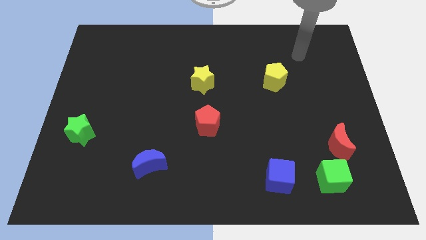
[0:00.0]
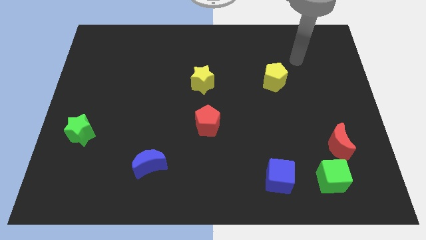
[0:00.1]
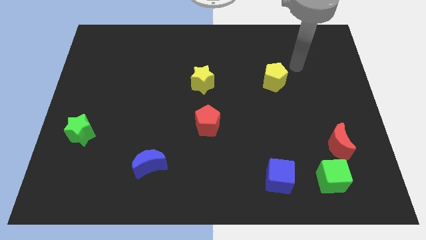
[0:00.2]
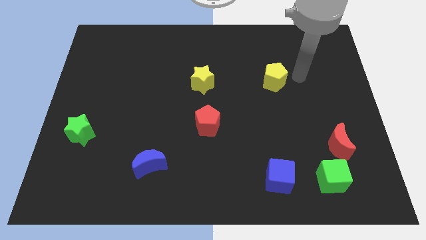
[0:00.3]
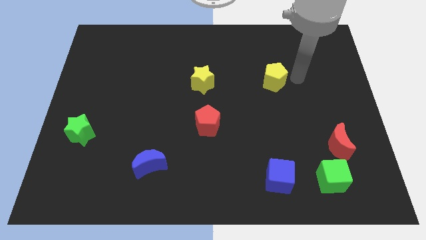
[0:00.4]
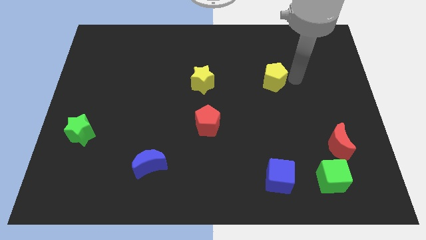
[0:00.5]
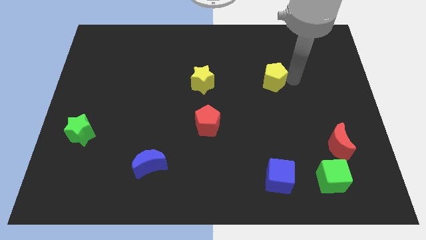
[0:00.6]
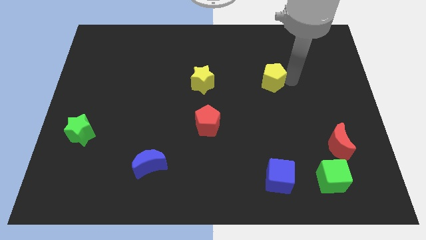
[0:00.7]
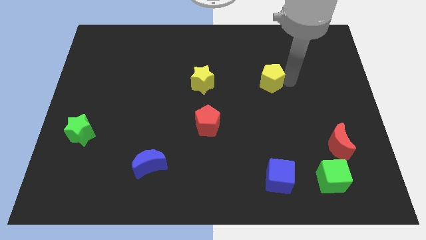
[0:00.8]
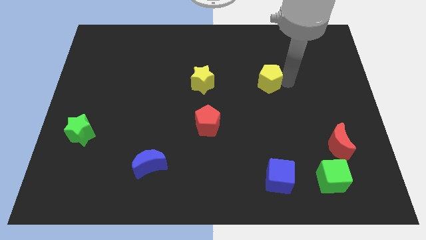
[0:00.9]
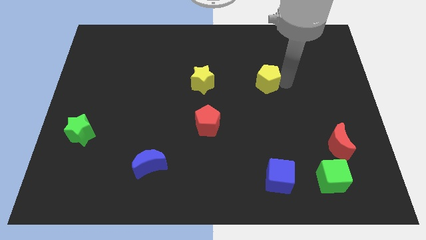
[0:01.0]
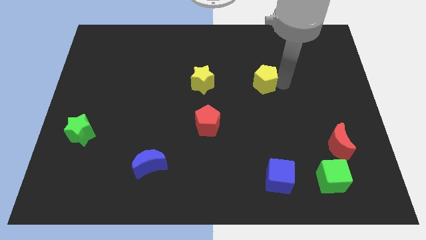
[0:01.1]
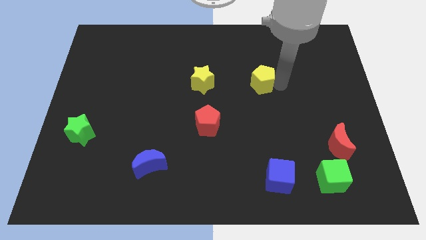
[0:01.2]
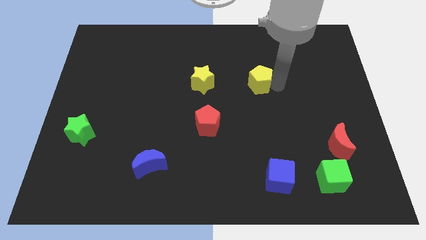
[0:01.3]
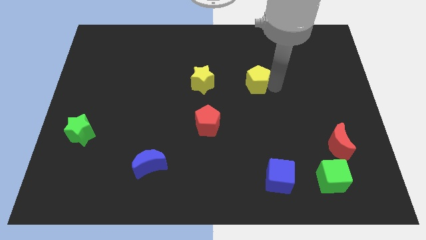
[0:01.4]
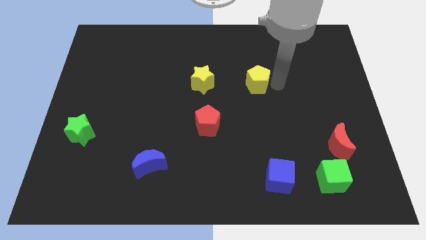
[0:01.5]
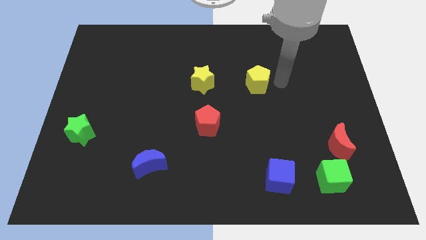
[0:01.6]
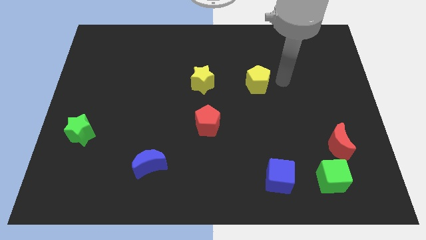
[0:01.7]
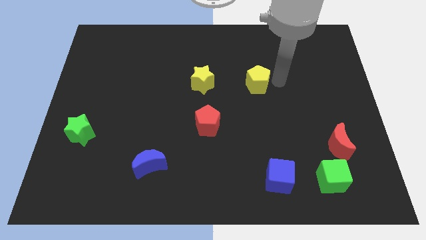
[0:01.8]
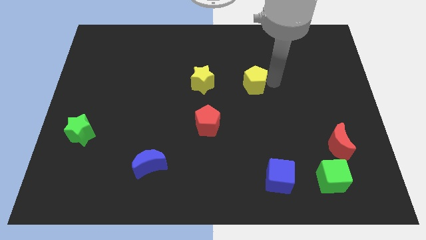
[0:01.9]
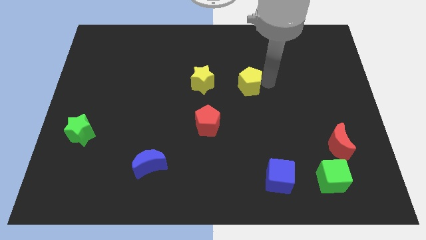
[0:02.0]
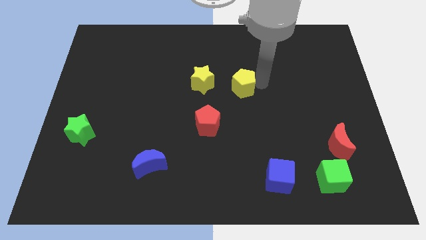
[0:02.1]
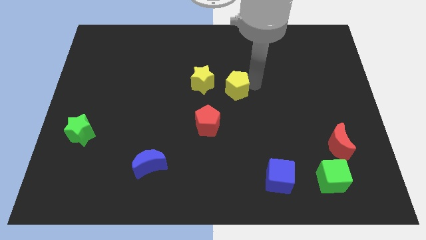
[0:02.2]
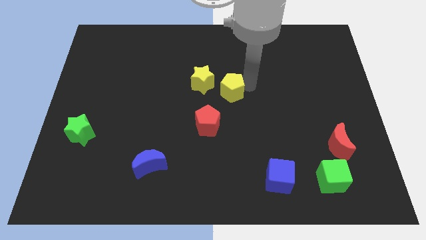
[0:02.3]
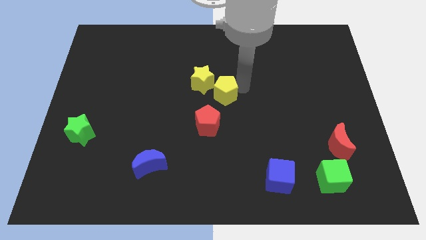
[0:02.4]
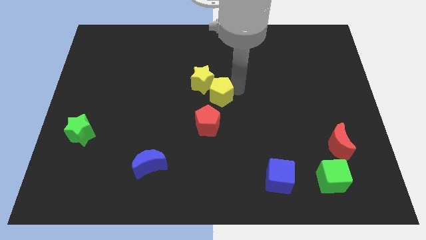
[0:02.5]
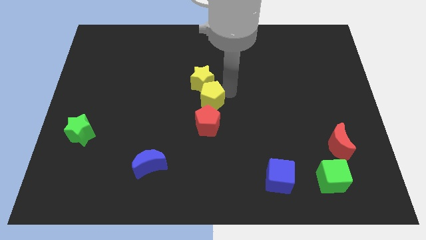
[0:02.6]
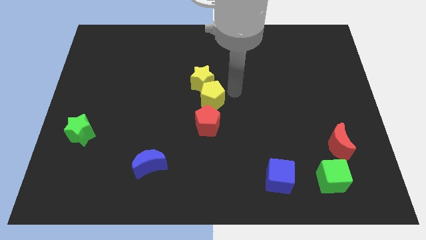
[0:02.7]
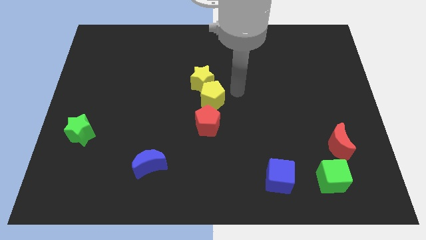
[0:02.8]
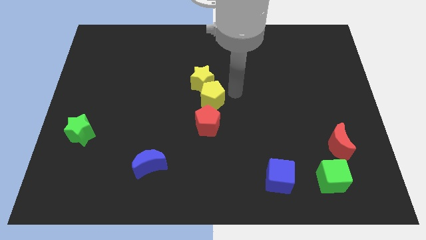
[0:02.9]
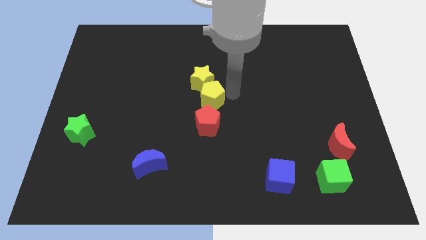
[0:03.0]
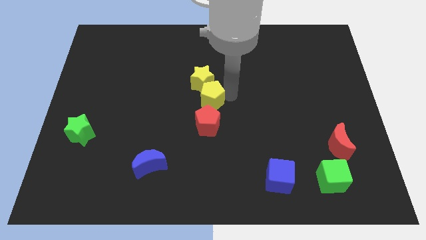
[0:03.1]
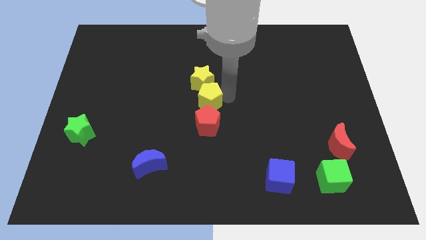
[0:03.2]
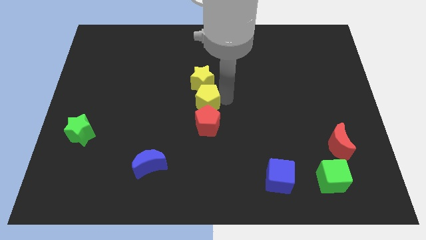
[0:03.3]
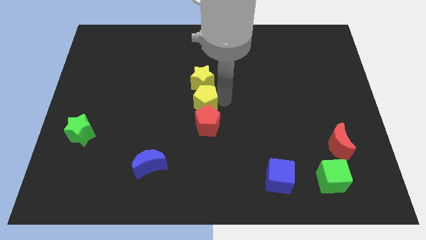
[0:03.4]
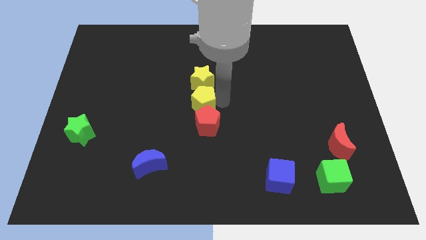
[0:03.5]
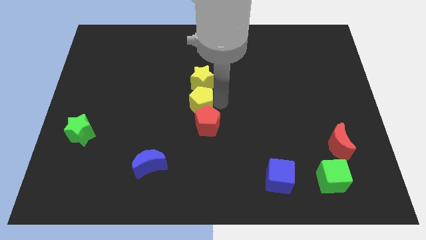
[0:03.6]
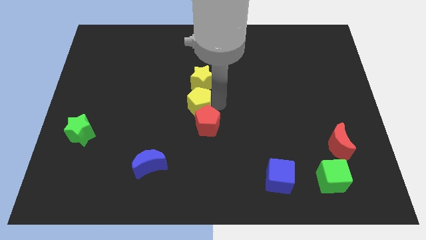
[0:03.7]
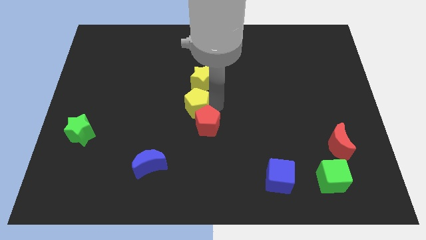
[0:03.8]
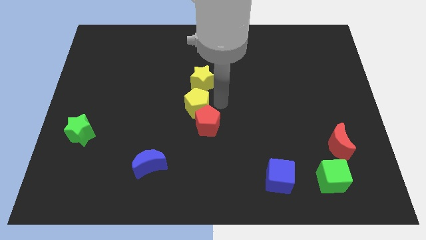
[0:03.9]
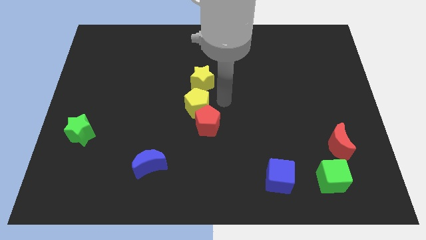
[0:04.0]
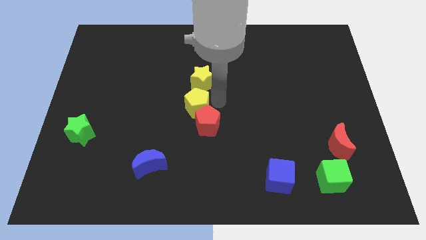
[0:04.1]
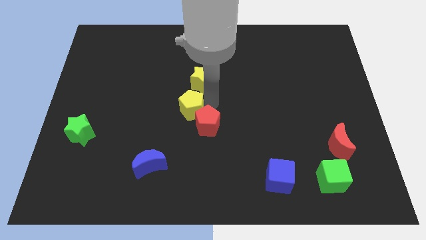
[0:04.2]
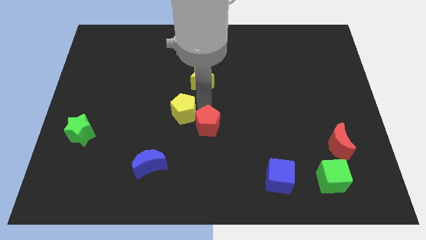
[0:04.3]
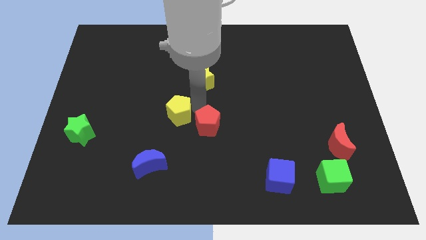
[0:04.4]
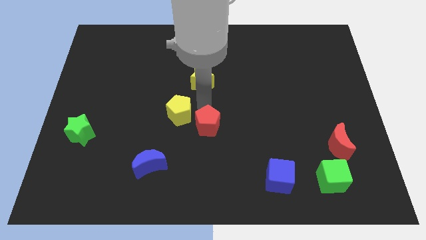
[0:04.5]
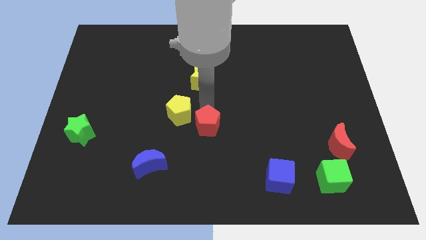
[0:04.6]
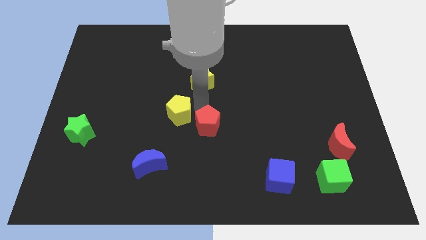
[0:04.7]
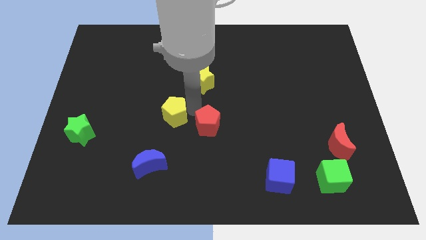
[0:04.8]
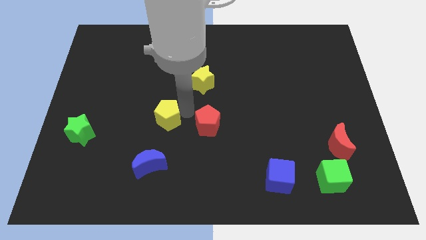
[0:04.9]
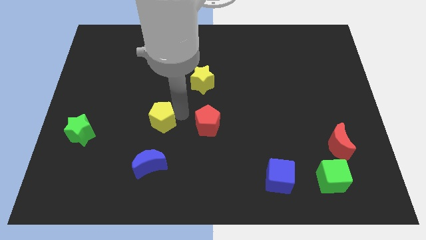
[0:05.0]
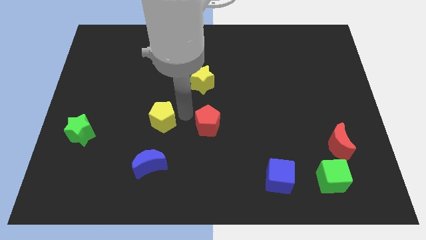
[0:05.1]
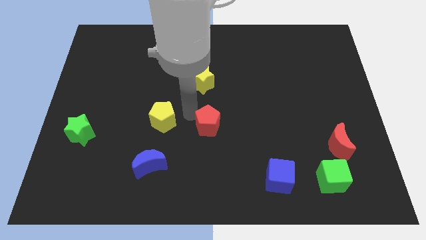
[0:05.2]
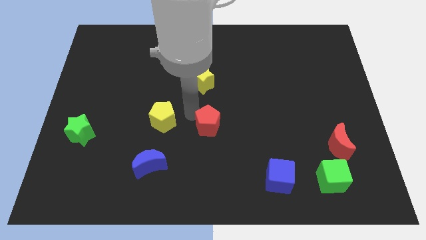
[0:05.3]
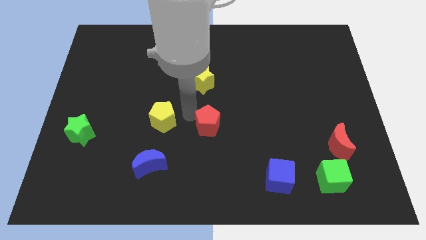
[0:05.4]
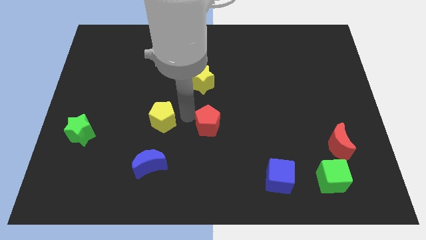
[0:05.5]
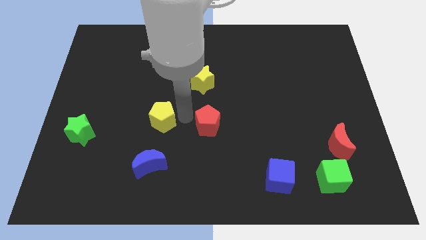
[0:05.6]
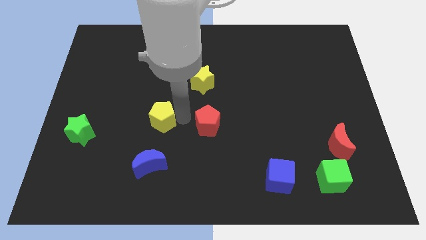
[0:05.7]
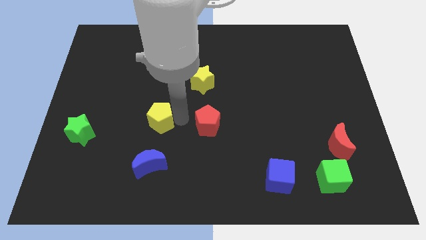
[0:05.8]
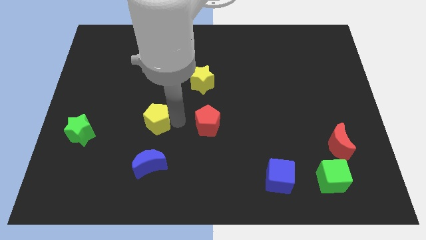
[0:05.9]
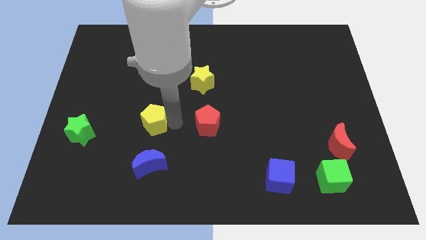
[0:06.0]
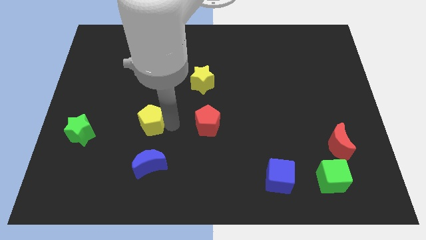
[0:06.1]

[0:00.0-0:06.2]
put the yellow pentagon right of the green star

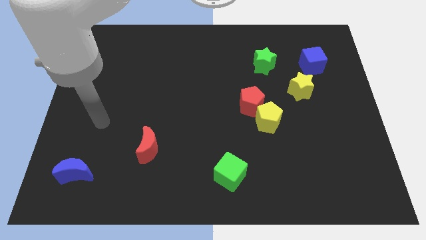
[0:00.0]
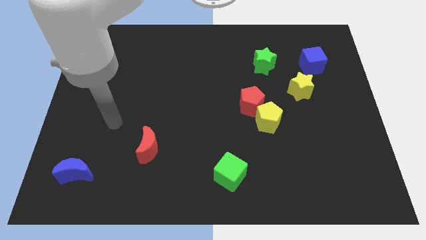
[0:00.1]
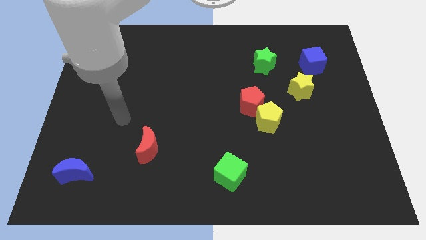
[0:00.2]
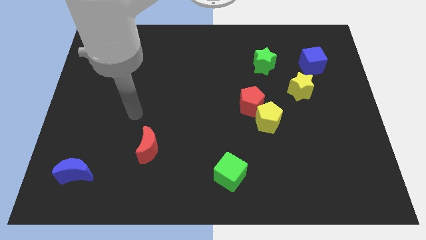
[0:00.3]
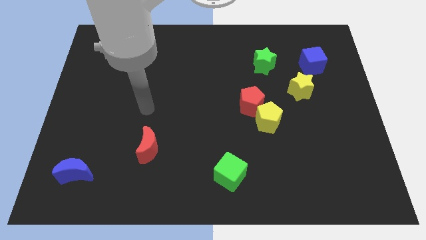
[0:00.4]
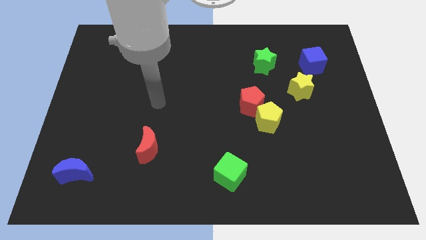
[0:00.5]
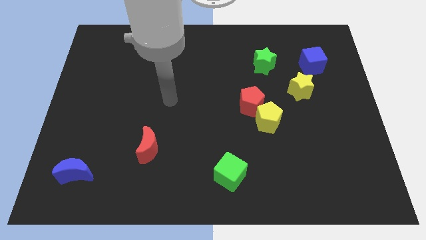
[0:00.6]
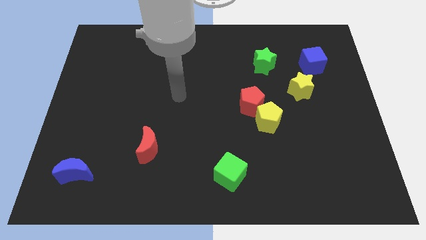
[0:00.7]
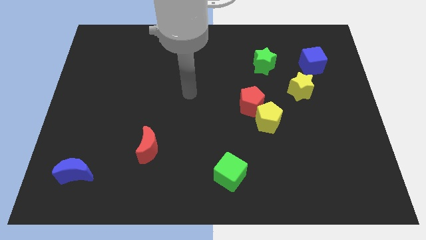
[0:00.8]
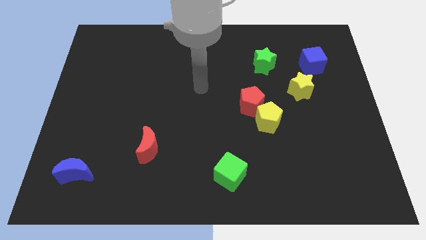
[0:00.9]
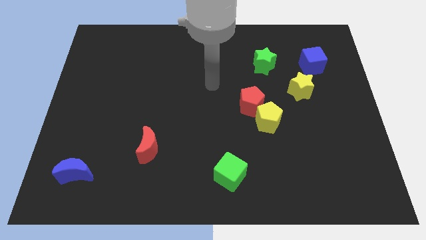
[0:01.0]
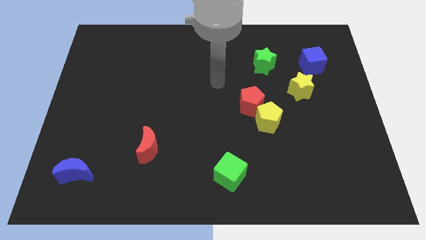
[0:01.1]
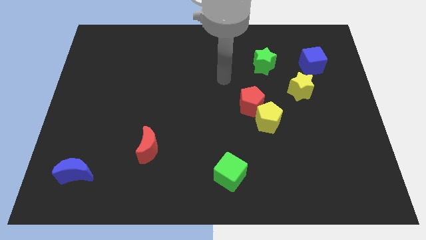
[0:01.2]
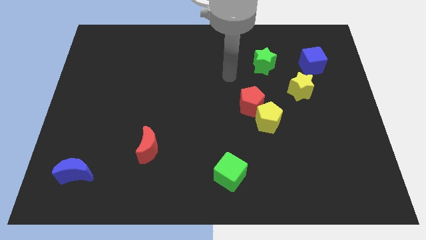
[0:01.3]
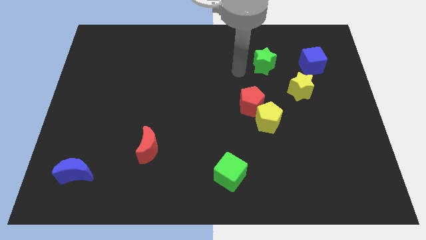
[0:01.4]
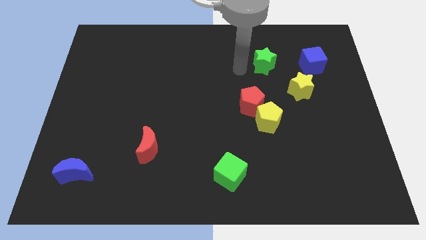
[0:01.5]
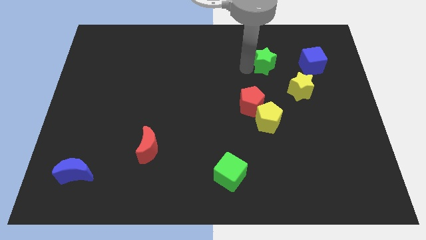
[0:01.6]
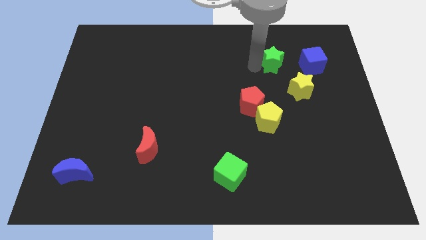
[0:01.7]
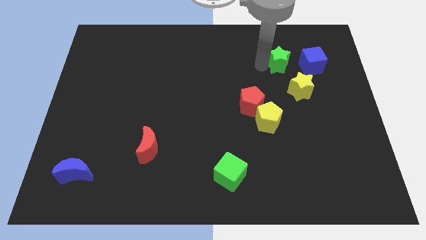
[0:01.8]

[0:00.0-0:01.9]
slide the green star above the yellow star
